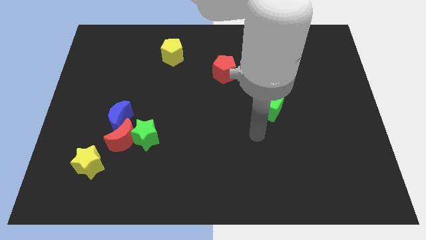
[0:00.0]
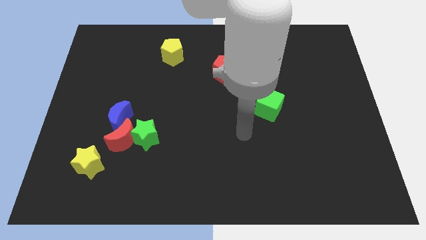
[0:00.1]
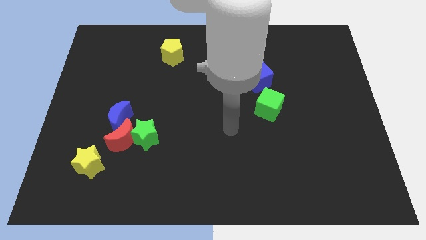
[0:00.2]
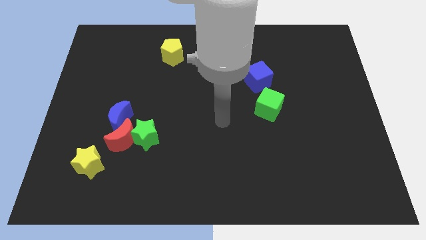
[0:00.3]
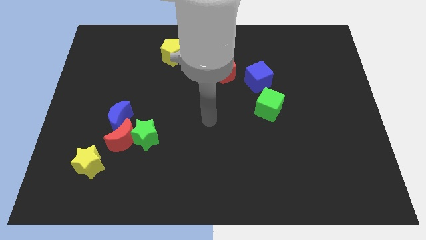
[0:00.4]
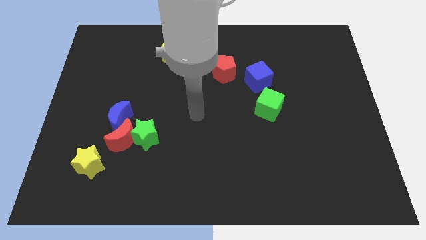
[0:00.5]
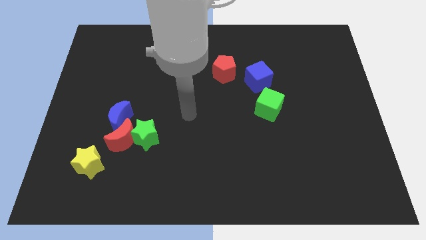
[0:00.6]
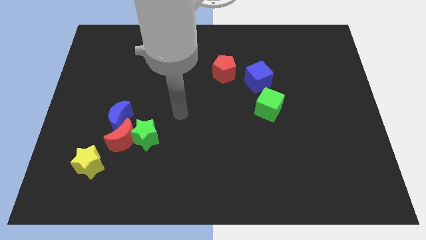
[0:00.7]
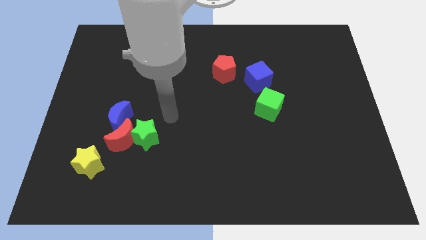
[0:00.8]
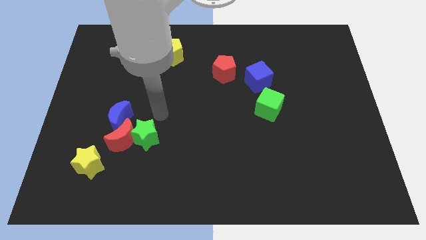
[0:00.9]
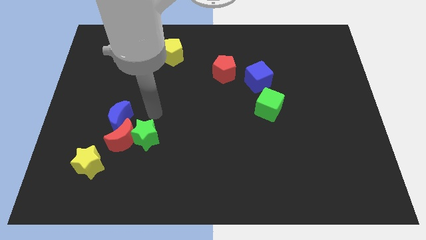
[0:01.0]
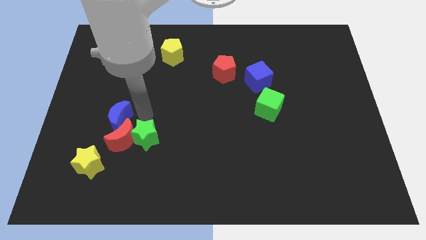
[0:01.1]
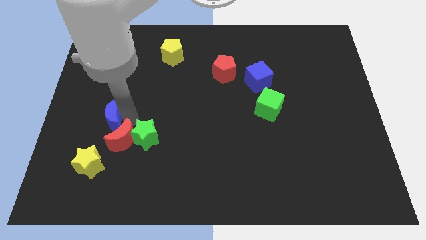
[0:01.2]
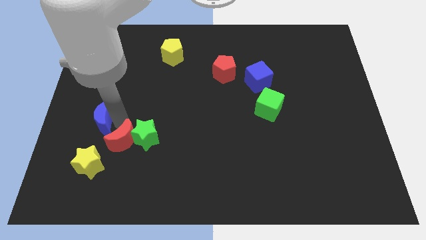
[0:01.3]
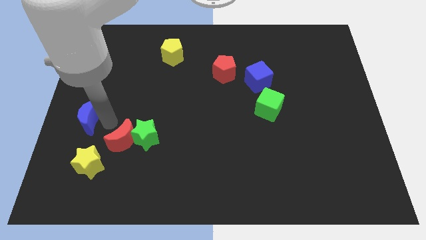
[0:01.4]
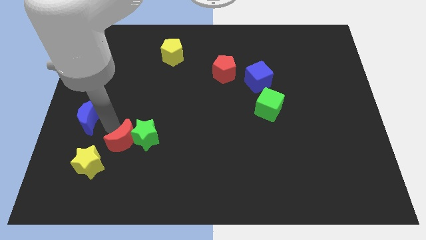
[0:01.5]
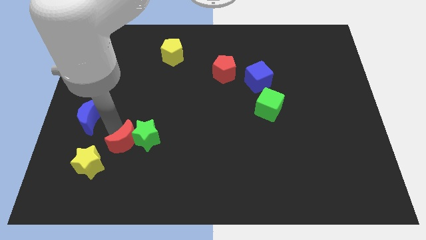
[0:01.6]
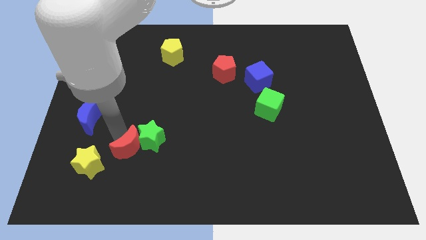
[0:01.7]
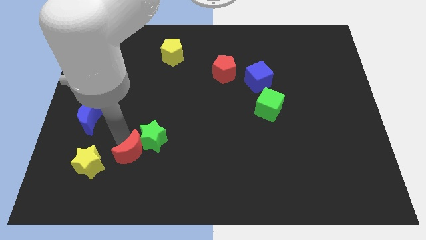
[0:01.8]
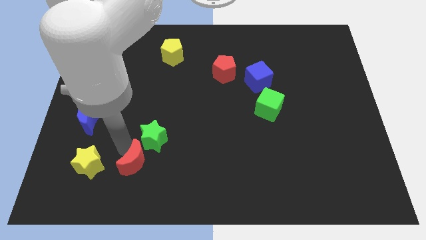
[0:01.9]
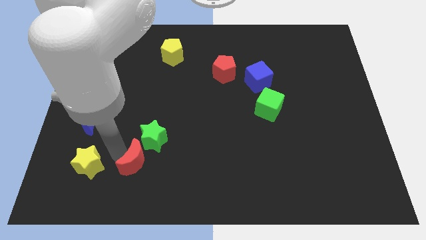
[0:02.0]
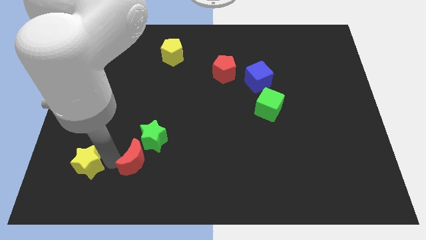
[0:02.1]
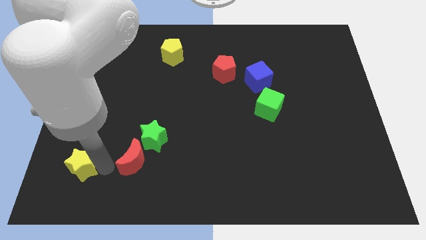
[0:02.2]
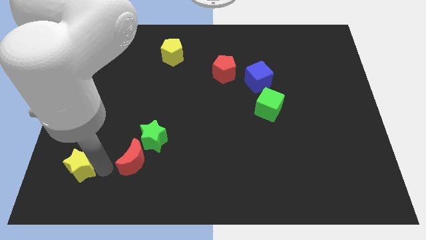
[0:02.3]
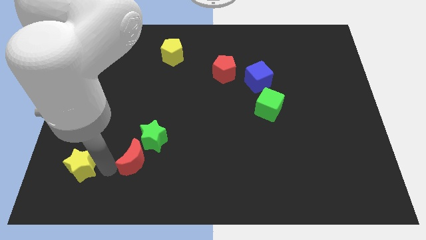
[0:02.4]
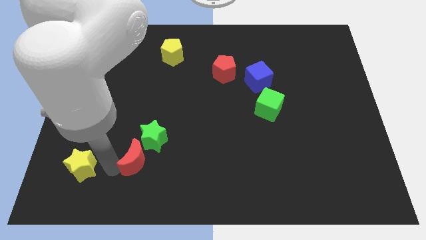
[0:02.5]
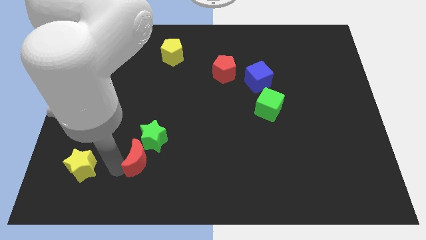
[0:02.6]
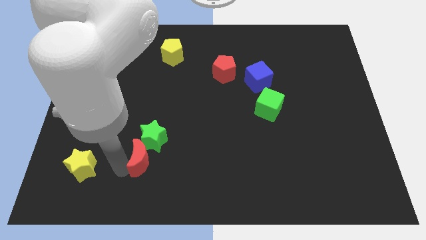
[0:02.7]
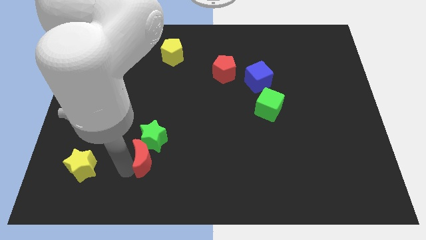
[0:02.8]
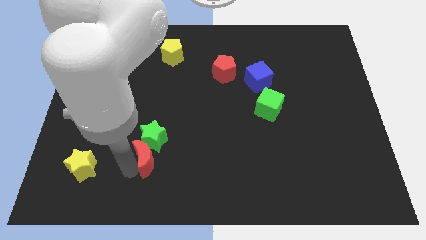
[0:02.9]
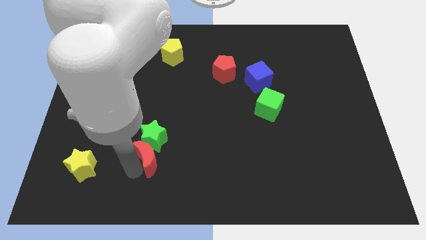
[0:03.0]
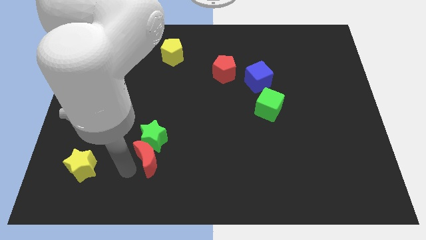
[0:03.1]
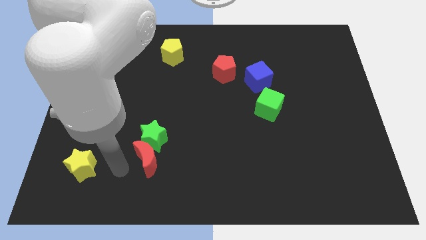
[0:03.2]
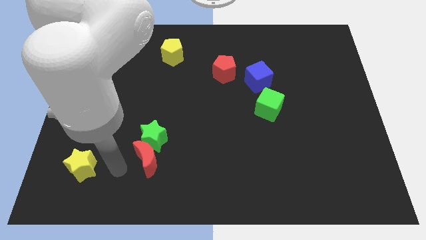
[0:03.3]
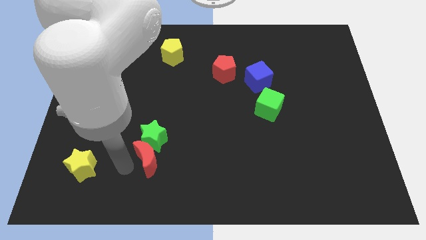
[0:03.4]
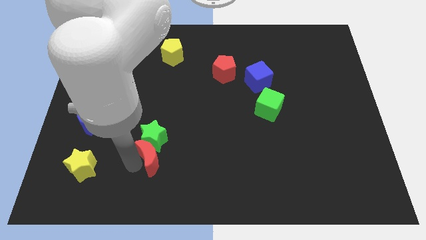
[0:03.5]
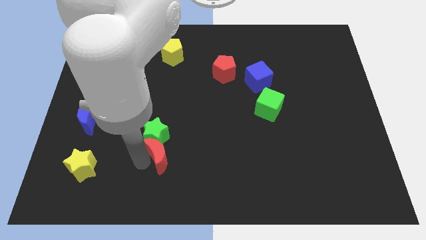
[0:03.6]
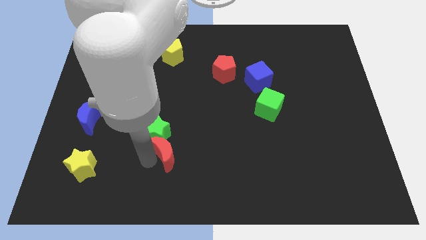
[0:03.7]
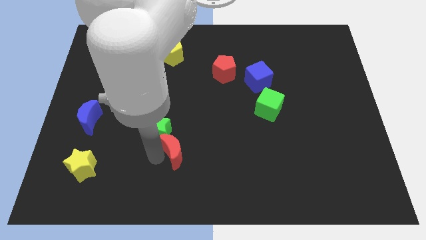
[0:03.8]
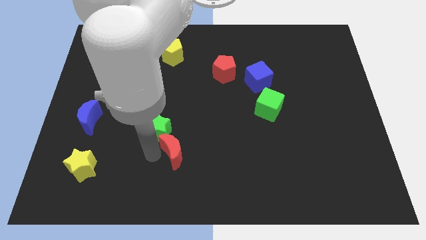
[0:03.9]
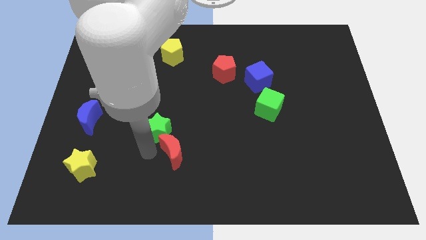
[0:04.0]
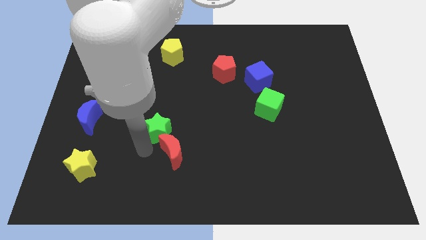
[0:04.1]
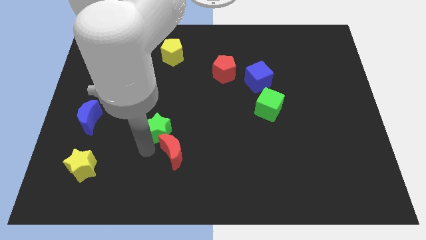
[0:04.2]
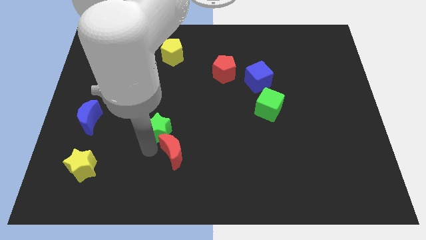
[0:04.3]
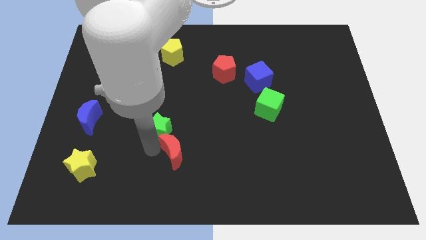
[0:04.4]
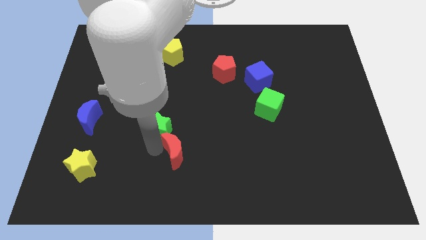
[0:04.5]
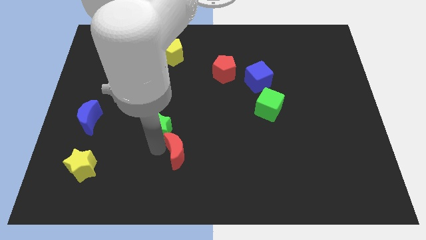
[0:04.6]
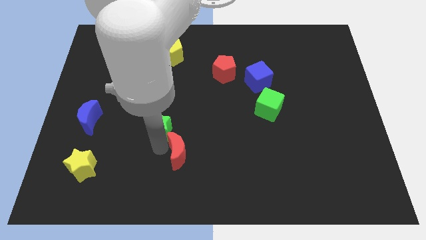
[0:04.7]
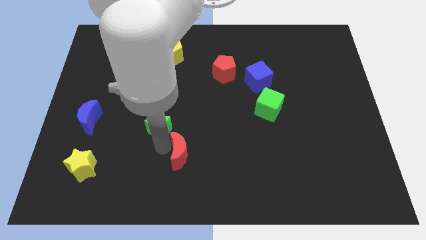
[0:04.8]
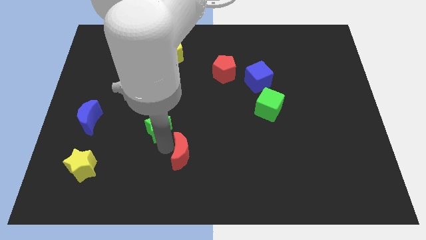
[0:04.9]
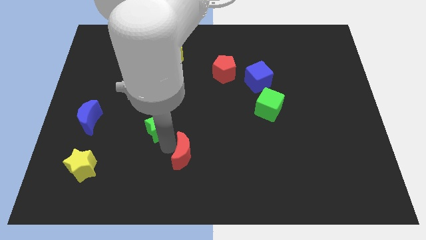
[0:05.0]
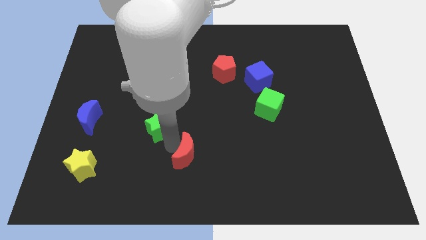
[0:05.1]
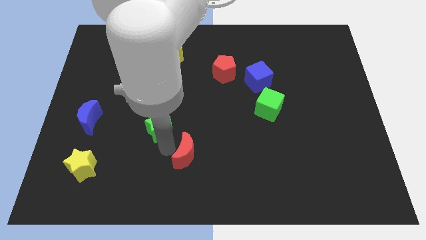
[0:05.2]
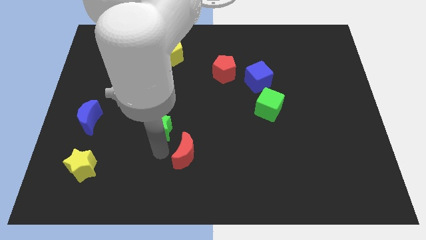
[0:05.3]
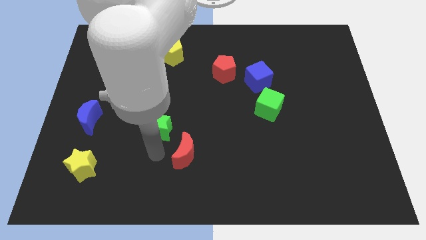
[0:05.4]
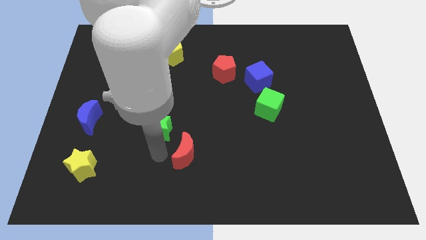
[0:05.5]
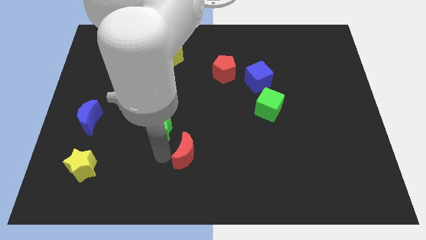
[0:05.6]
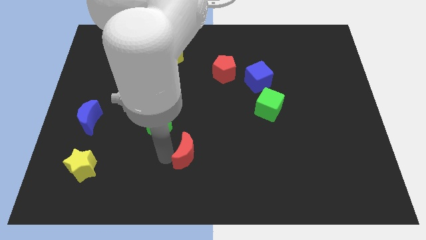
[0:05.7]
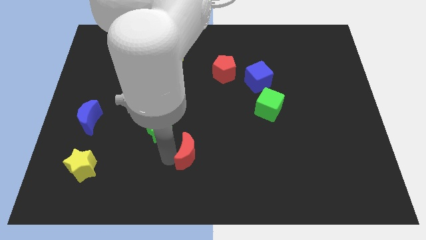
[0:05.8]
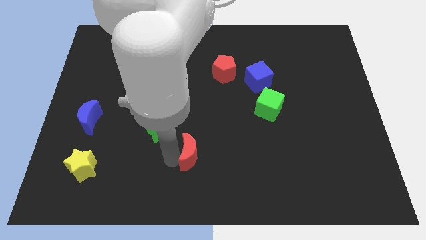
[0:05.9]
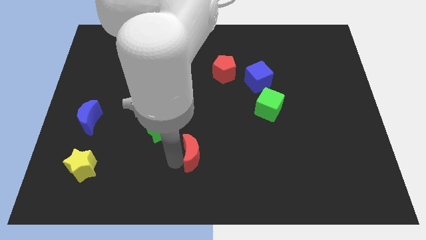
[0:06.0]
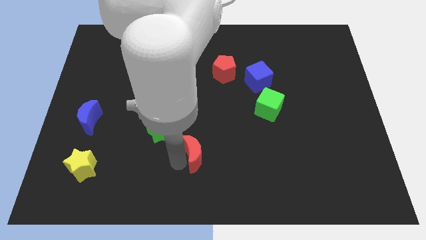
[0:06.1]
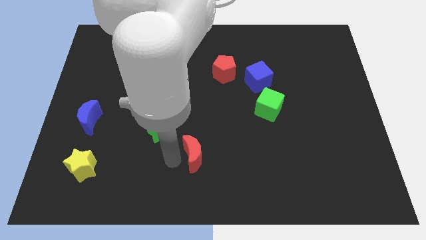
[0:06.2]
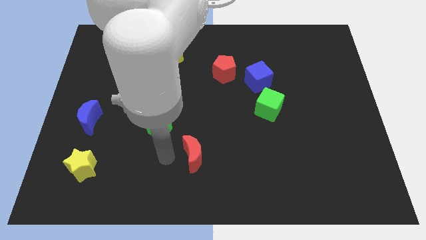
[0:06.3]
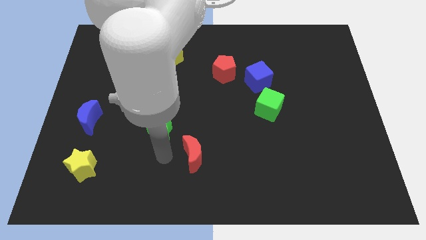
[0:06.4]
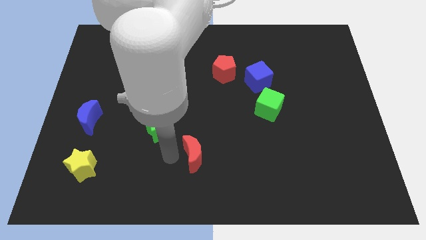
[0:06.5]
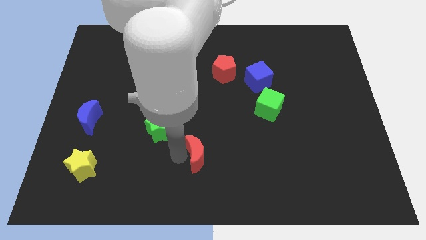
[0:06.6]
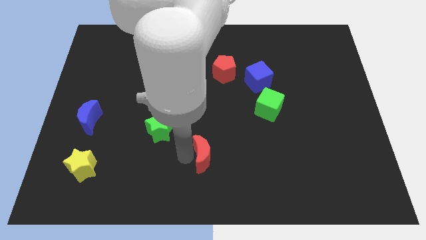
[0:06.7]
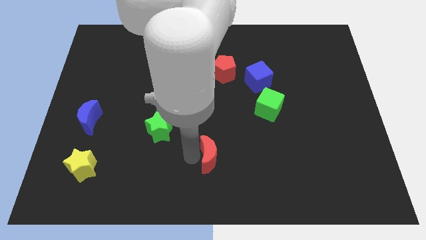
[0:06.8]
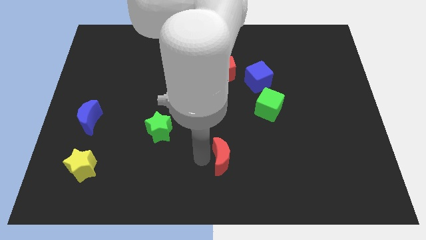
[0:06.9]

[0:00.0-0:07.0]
move the red moon to the right

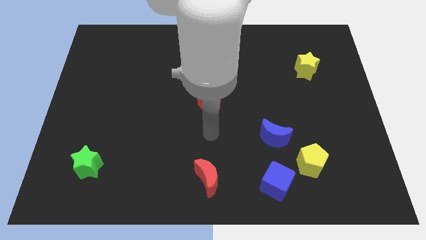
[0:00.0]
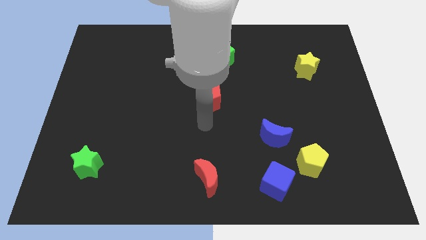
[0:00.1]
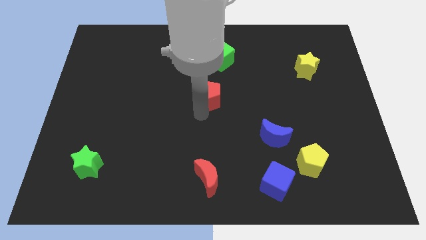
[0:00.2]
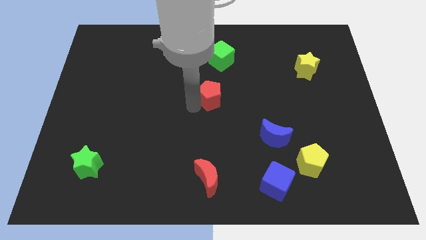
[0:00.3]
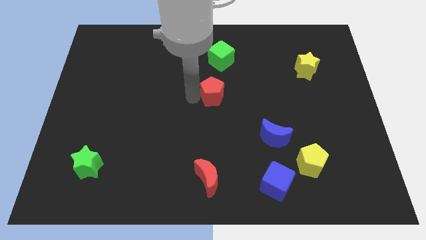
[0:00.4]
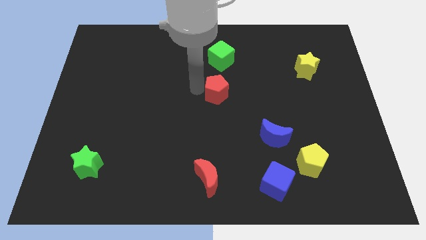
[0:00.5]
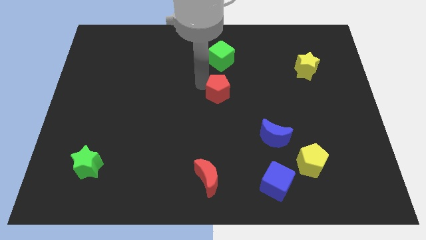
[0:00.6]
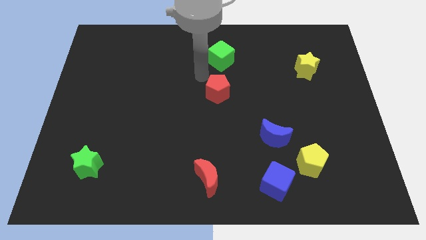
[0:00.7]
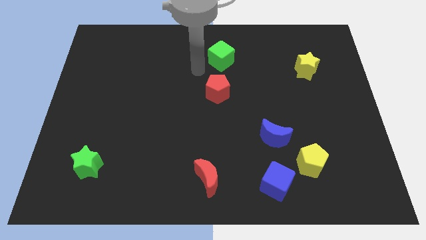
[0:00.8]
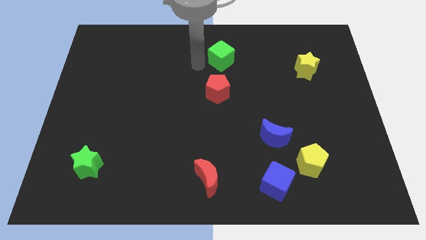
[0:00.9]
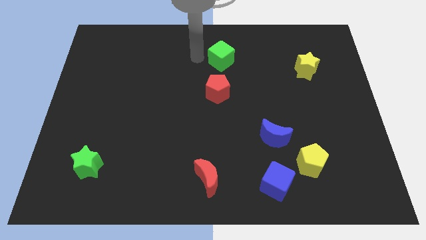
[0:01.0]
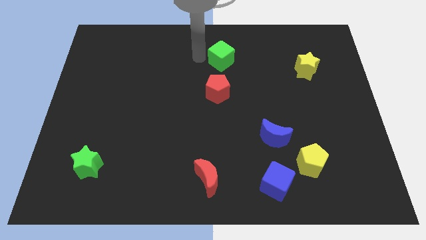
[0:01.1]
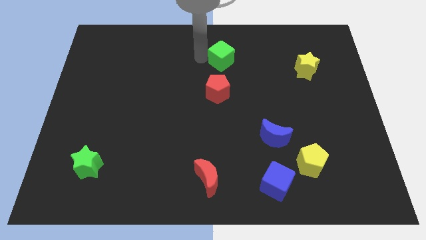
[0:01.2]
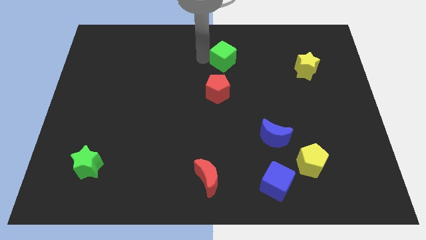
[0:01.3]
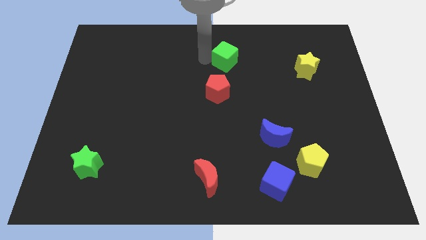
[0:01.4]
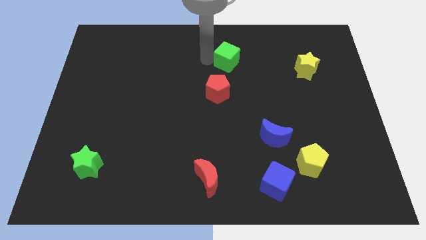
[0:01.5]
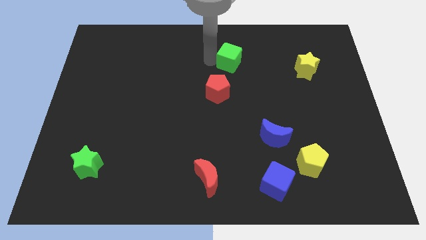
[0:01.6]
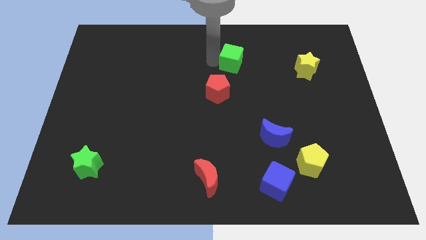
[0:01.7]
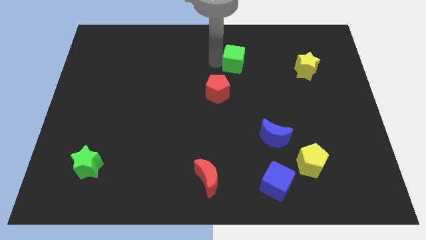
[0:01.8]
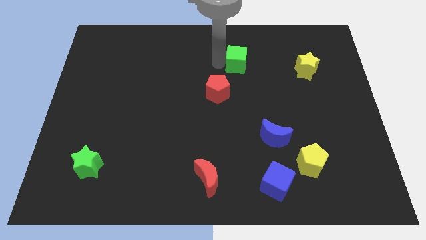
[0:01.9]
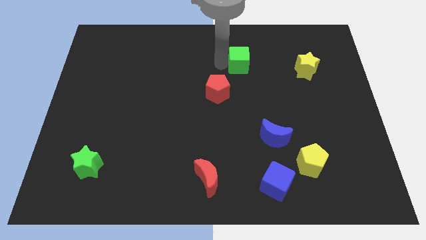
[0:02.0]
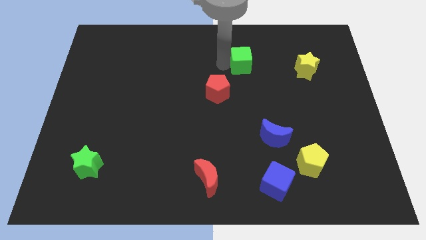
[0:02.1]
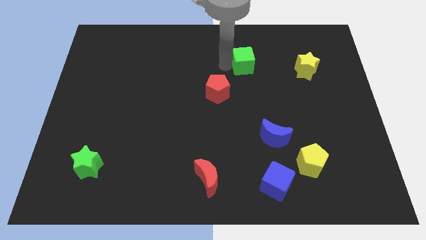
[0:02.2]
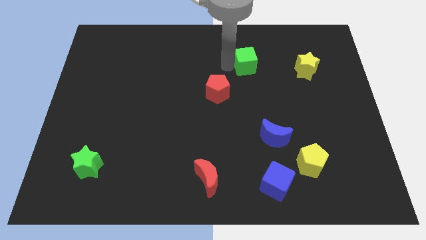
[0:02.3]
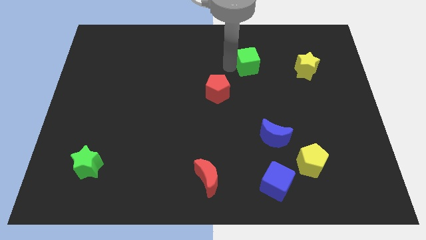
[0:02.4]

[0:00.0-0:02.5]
slightly push the green cube to the right
